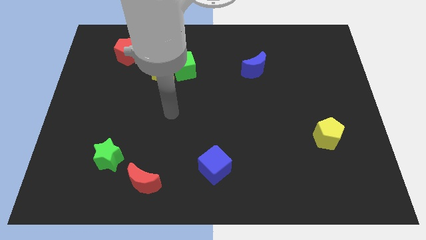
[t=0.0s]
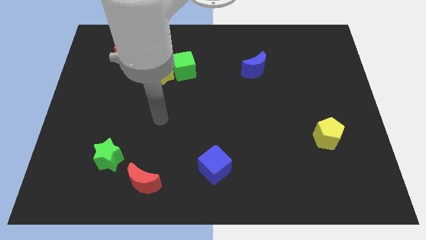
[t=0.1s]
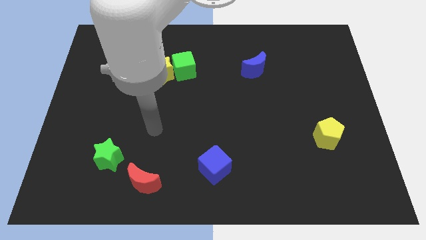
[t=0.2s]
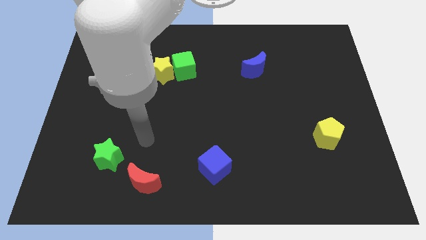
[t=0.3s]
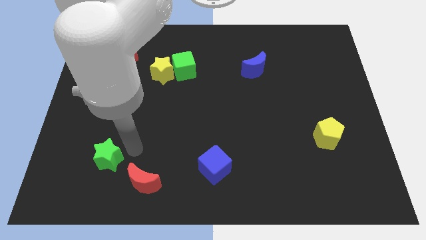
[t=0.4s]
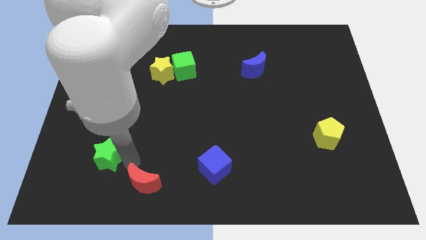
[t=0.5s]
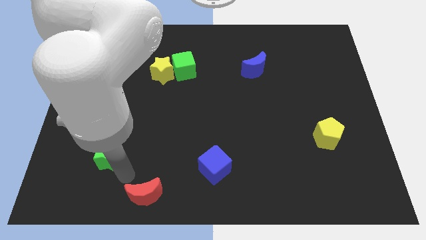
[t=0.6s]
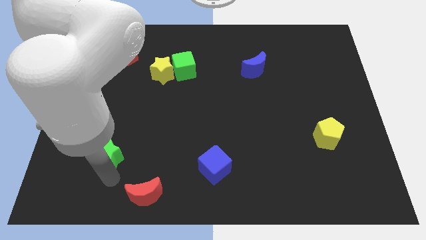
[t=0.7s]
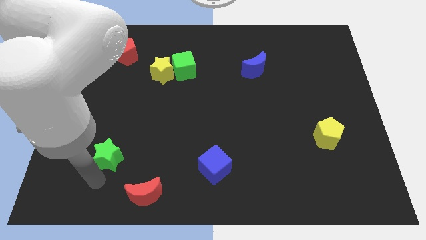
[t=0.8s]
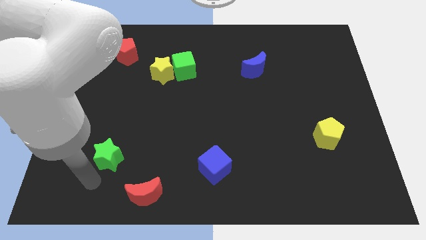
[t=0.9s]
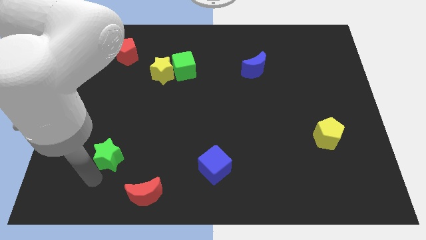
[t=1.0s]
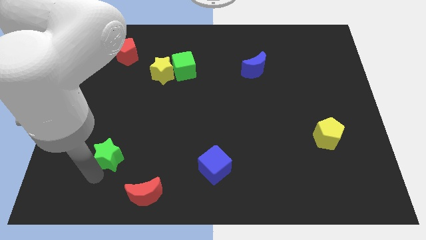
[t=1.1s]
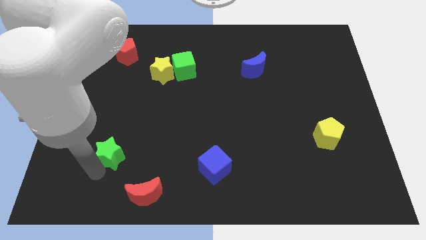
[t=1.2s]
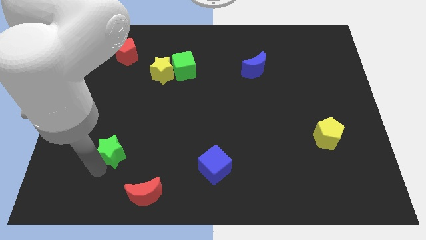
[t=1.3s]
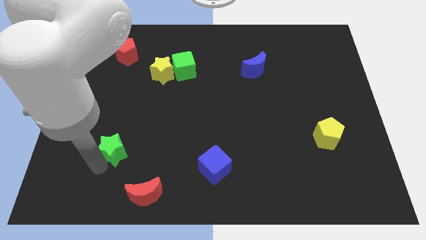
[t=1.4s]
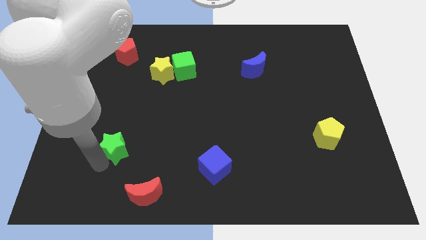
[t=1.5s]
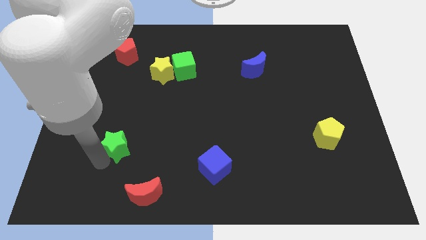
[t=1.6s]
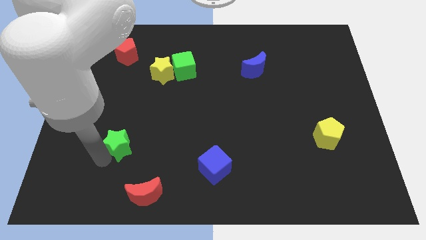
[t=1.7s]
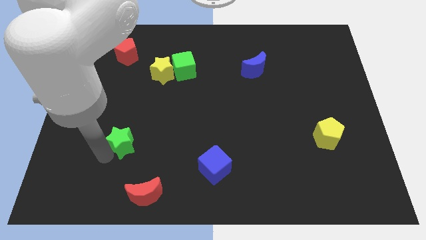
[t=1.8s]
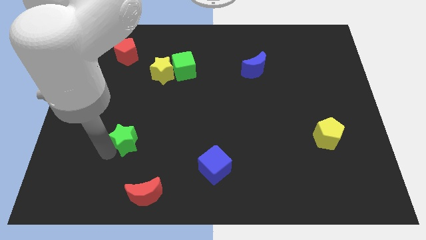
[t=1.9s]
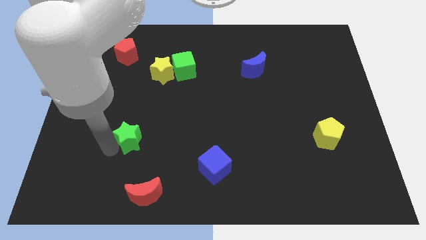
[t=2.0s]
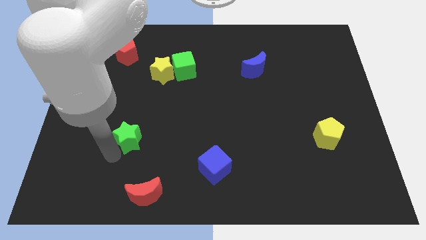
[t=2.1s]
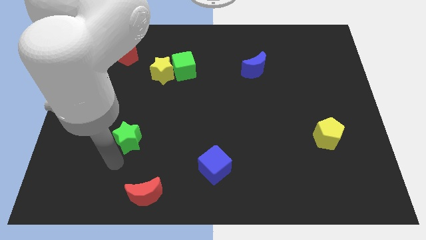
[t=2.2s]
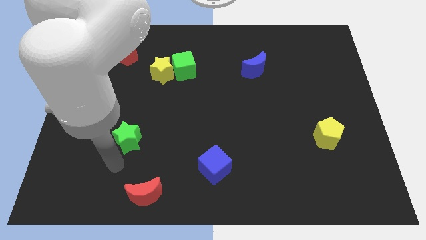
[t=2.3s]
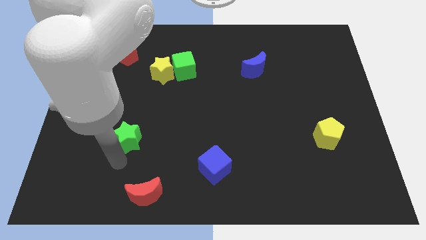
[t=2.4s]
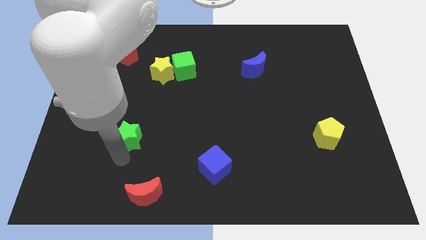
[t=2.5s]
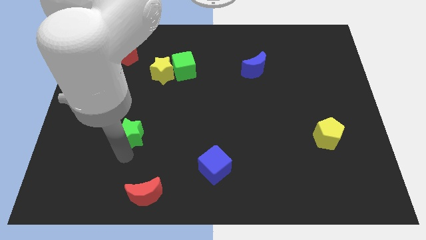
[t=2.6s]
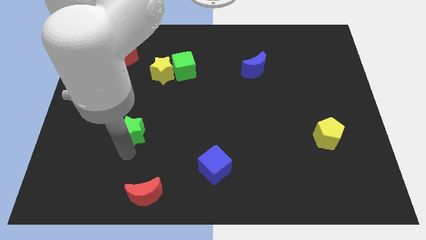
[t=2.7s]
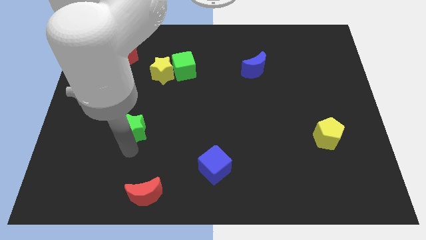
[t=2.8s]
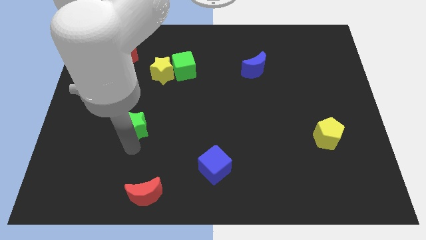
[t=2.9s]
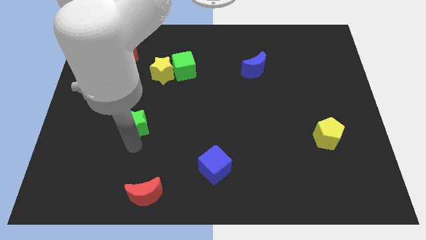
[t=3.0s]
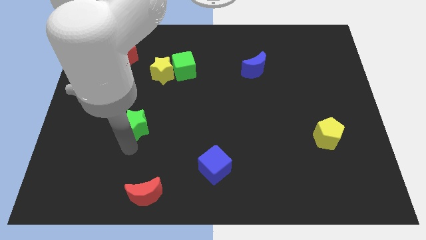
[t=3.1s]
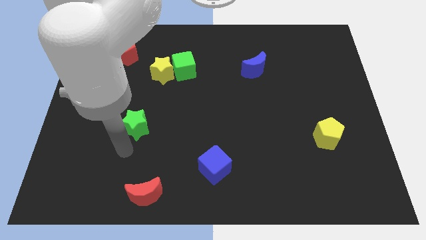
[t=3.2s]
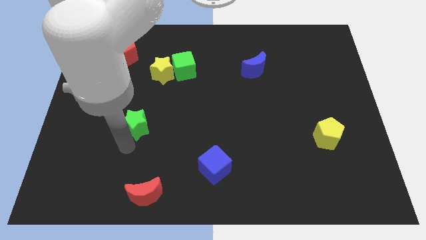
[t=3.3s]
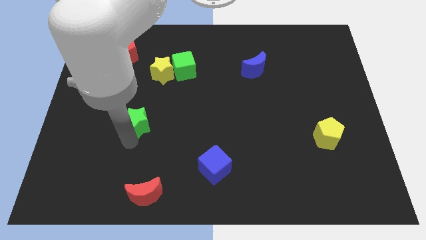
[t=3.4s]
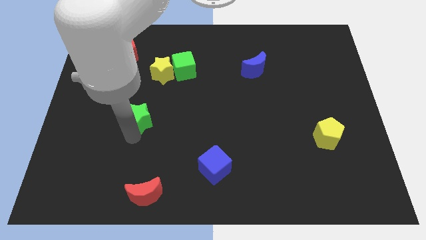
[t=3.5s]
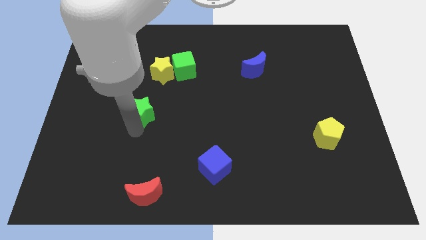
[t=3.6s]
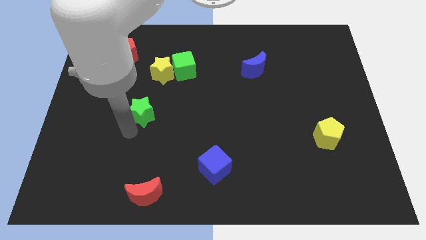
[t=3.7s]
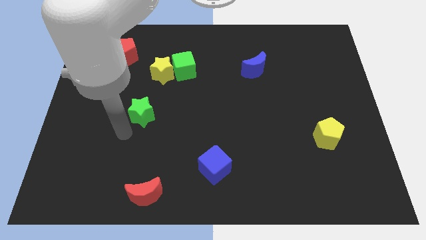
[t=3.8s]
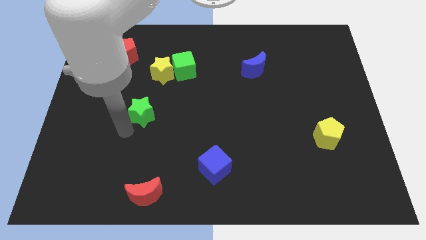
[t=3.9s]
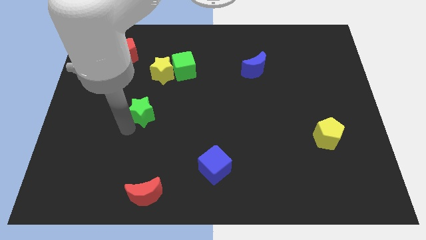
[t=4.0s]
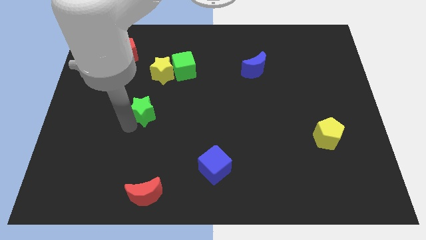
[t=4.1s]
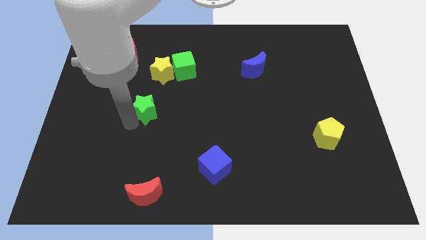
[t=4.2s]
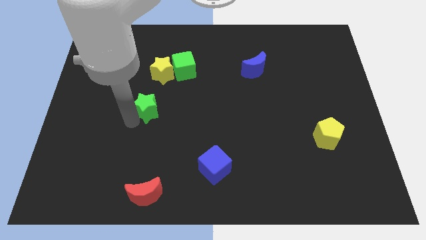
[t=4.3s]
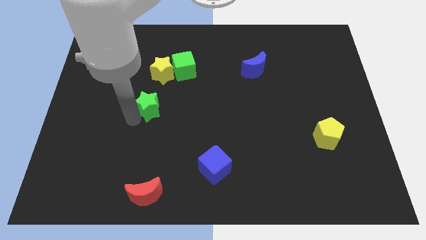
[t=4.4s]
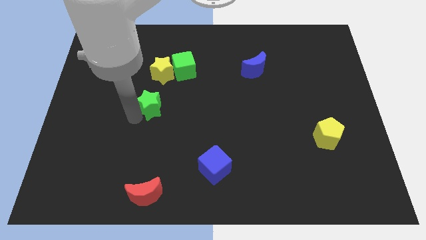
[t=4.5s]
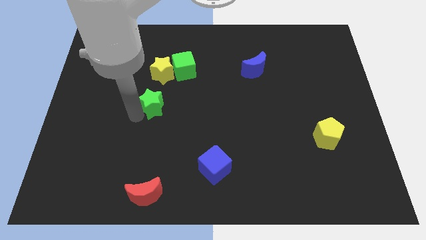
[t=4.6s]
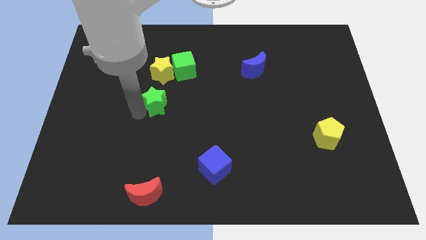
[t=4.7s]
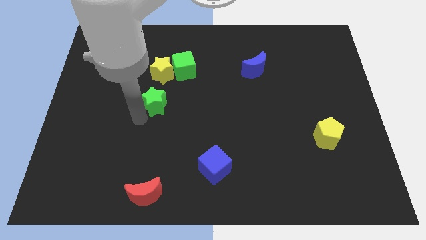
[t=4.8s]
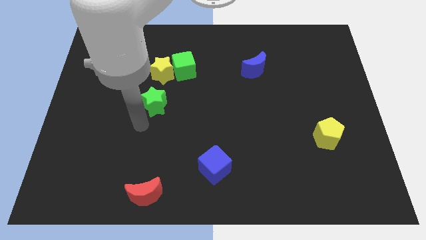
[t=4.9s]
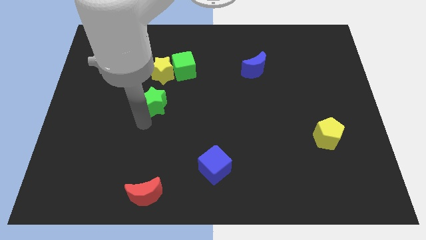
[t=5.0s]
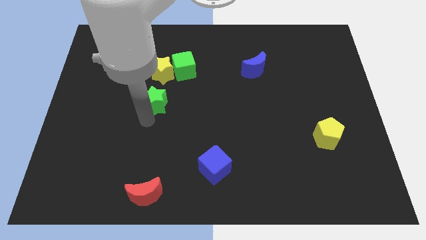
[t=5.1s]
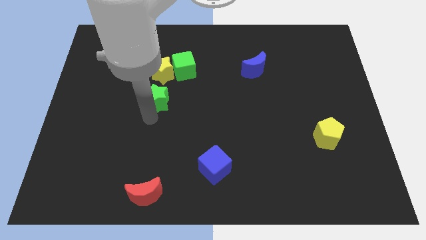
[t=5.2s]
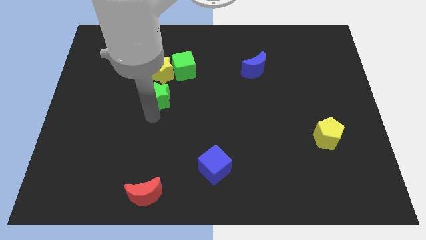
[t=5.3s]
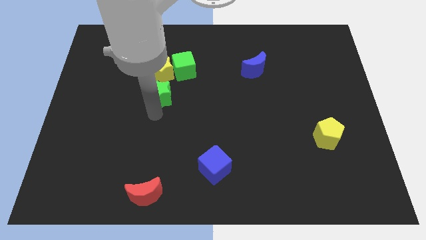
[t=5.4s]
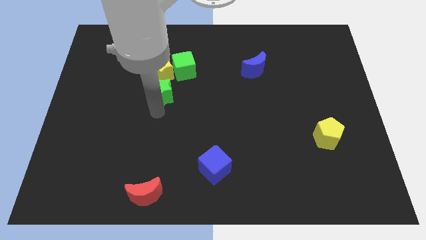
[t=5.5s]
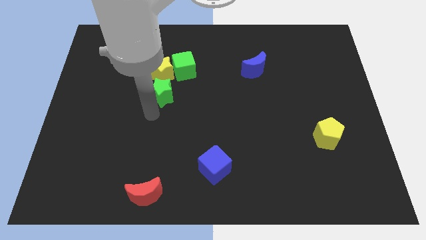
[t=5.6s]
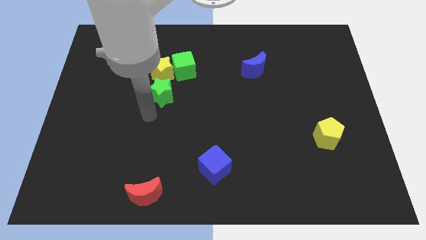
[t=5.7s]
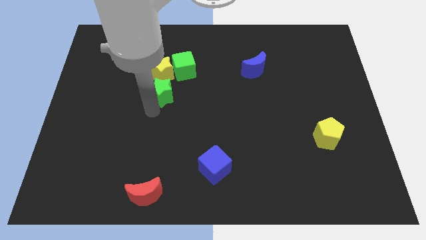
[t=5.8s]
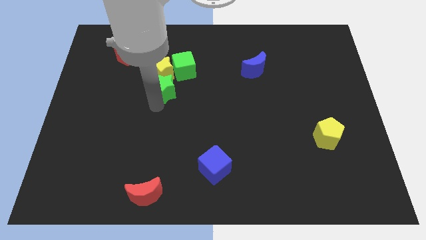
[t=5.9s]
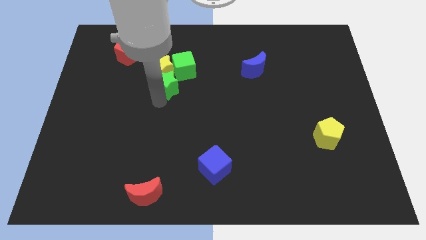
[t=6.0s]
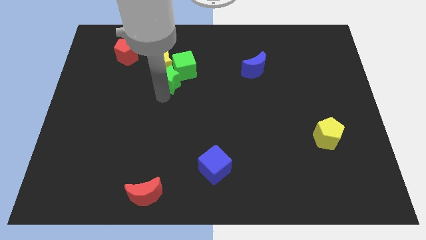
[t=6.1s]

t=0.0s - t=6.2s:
push the green star close to the green cube

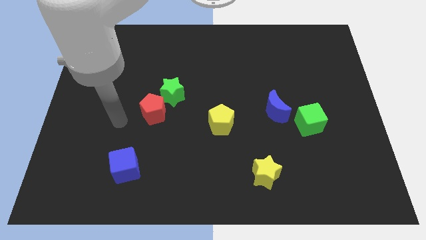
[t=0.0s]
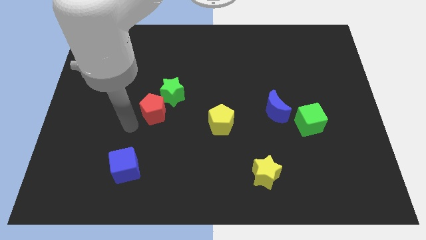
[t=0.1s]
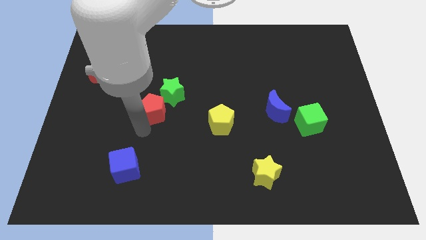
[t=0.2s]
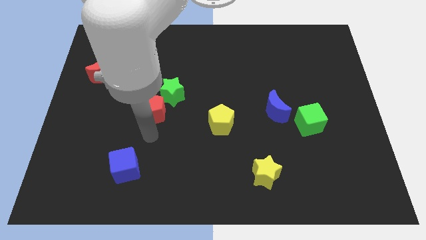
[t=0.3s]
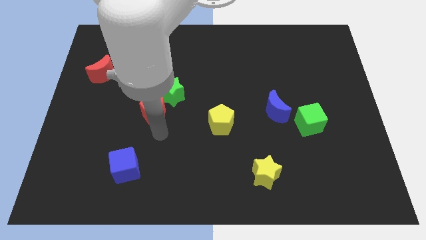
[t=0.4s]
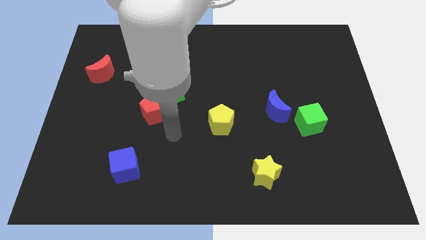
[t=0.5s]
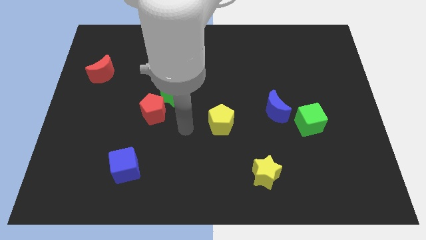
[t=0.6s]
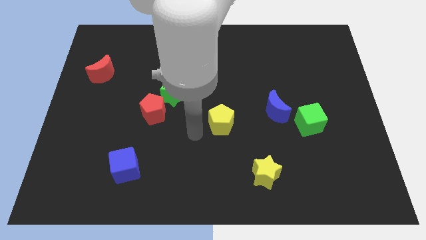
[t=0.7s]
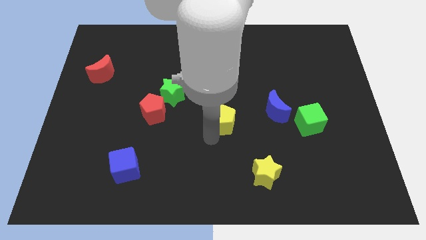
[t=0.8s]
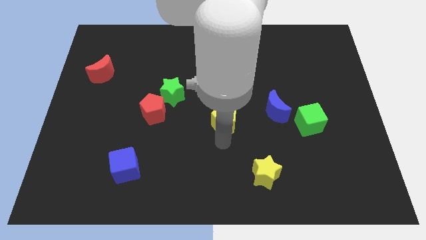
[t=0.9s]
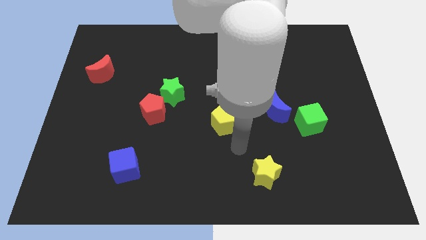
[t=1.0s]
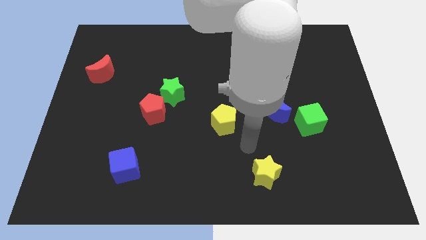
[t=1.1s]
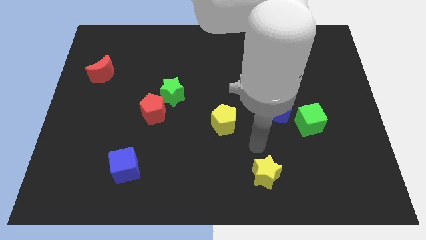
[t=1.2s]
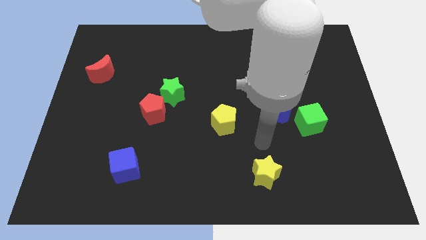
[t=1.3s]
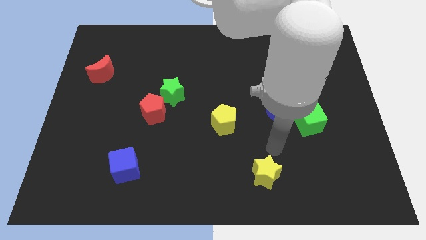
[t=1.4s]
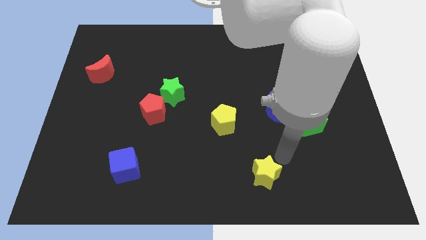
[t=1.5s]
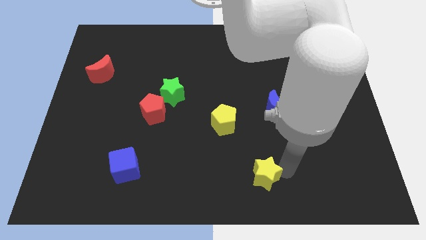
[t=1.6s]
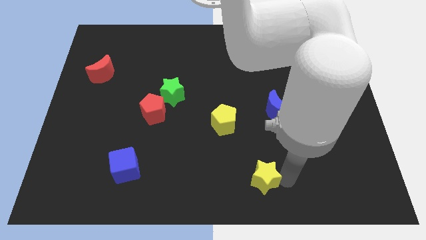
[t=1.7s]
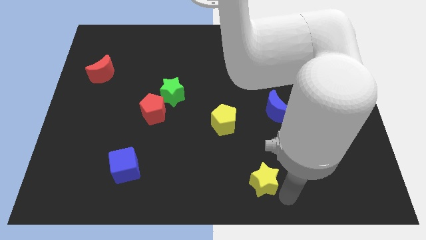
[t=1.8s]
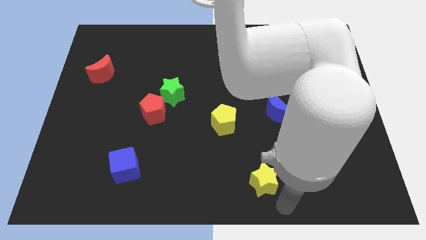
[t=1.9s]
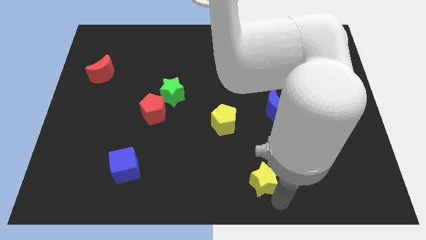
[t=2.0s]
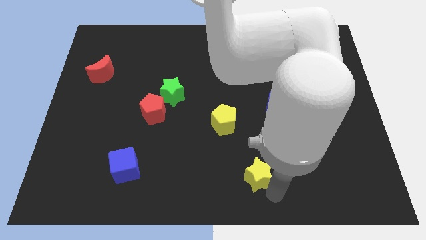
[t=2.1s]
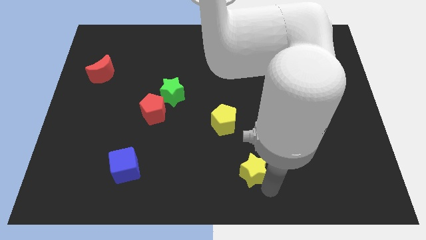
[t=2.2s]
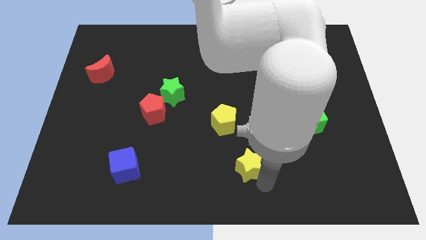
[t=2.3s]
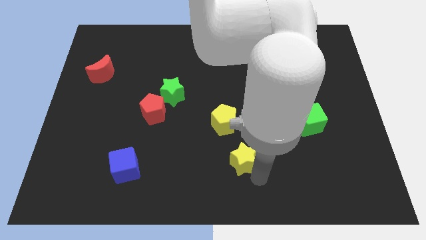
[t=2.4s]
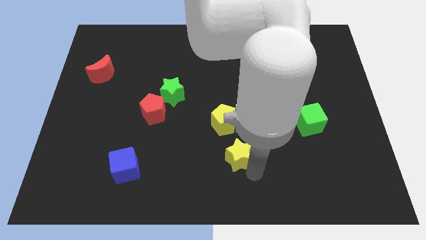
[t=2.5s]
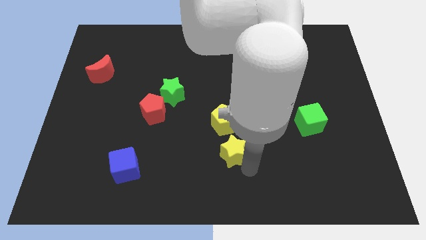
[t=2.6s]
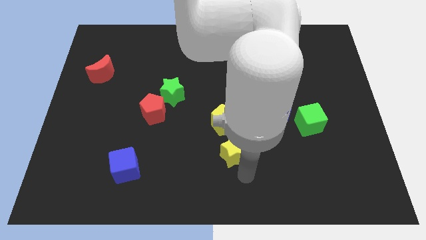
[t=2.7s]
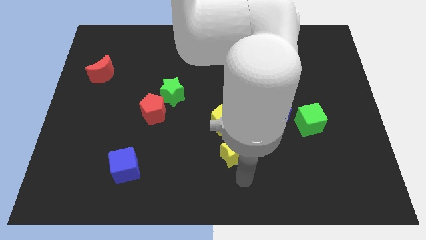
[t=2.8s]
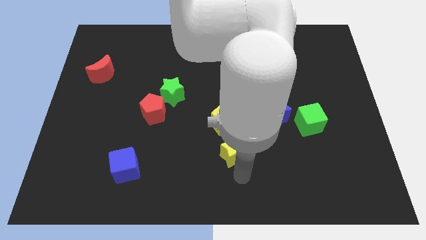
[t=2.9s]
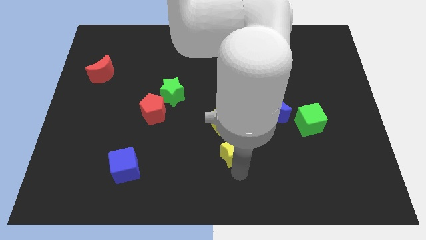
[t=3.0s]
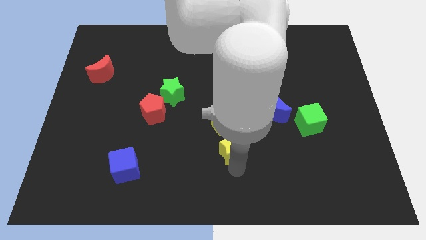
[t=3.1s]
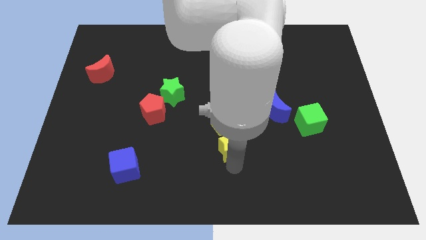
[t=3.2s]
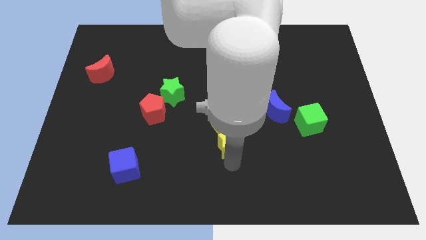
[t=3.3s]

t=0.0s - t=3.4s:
move the yellow star close to the yellow pentagon
